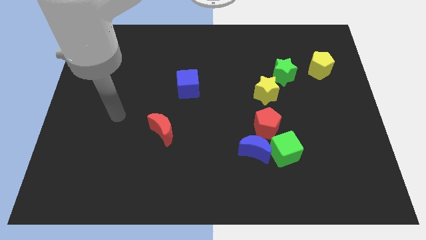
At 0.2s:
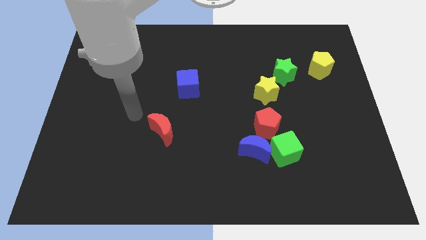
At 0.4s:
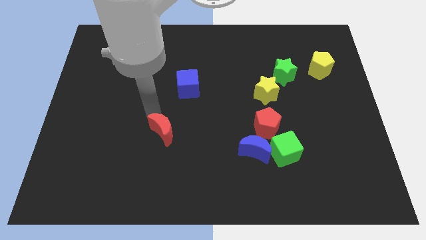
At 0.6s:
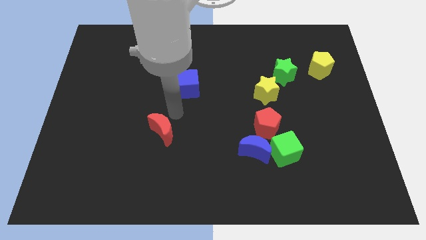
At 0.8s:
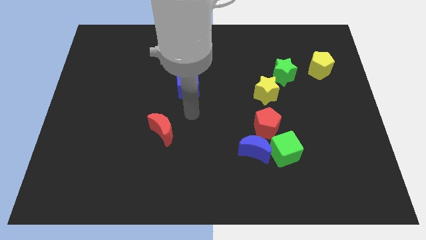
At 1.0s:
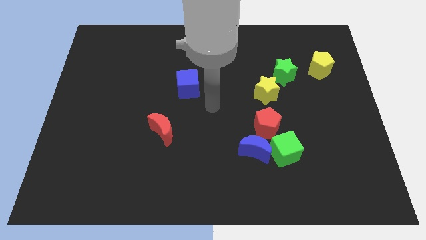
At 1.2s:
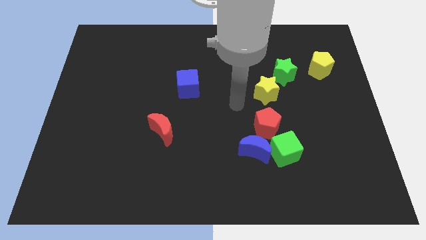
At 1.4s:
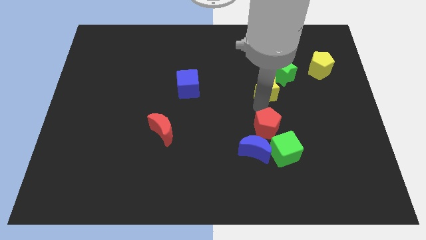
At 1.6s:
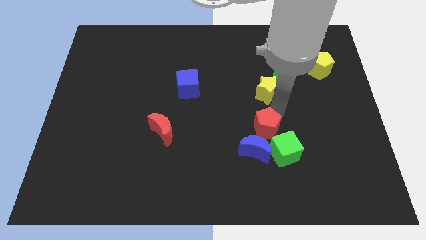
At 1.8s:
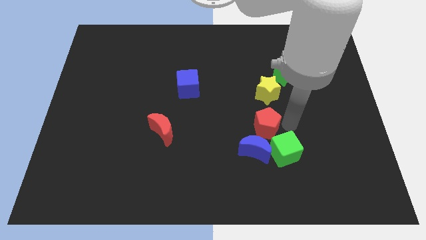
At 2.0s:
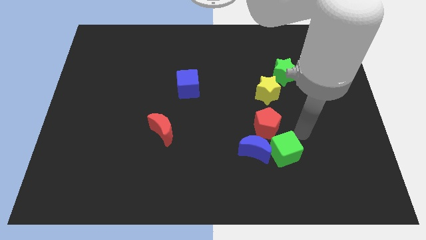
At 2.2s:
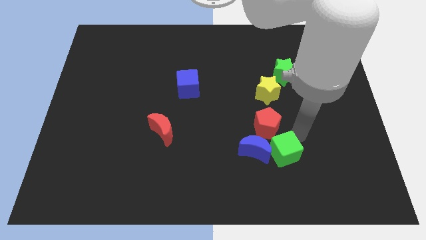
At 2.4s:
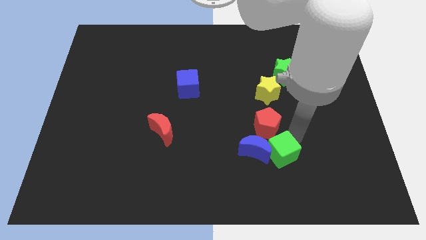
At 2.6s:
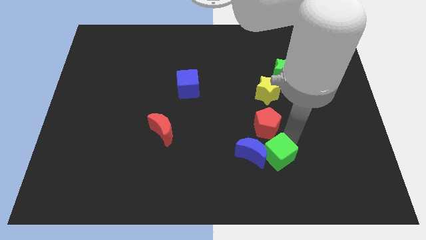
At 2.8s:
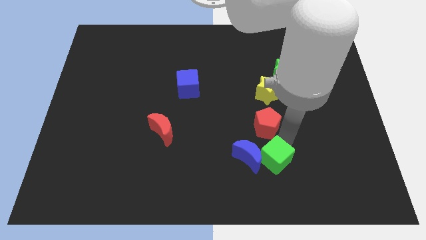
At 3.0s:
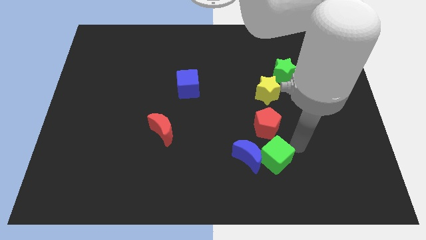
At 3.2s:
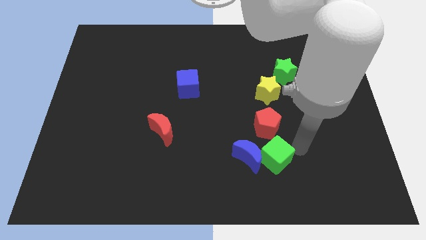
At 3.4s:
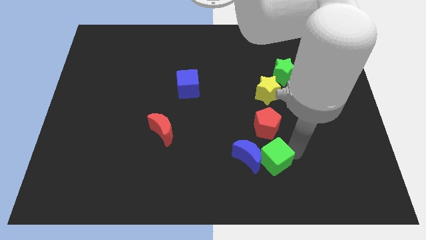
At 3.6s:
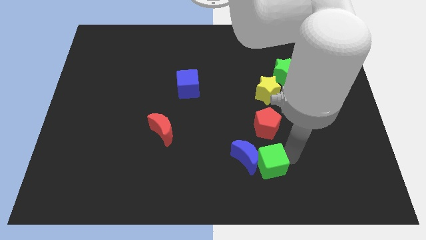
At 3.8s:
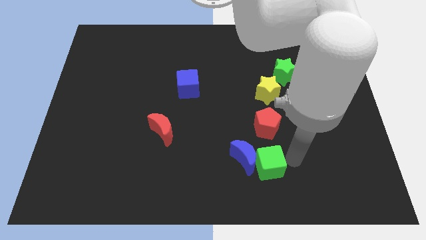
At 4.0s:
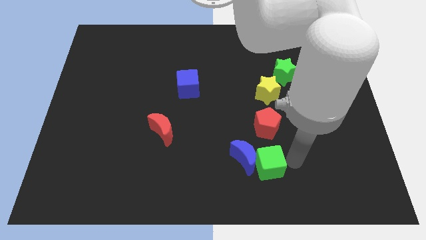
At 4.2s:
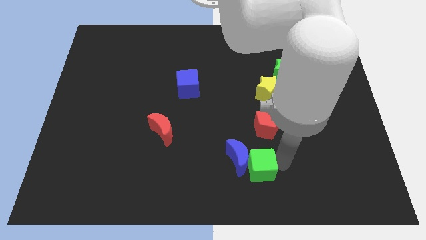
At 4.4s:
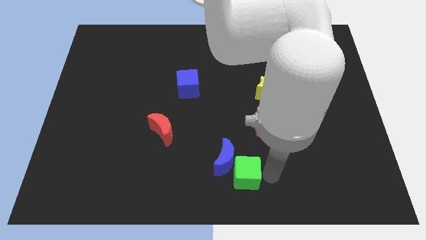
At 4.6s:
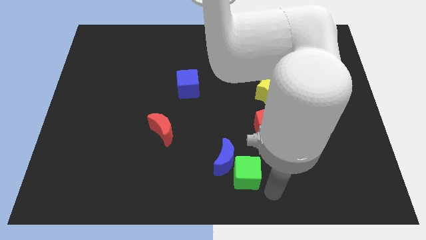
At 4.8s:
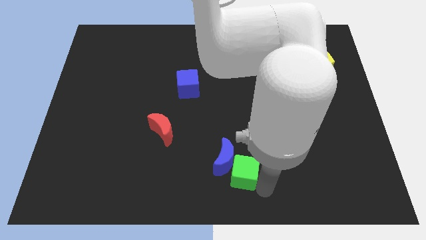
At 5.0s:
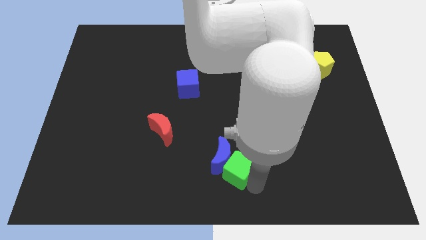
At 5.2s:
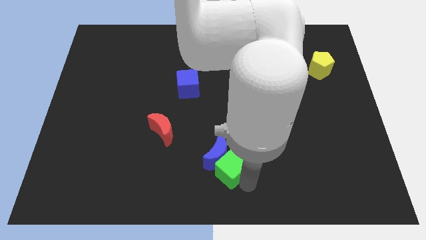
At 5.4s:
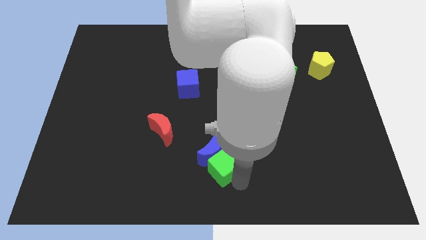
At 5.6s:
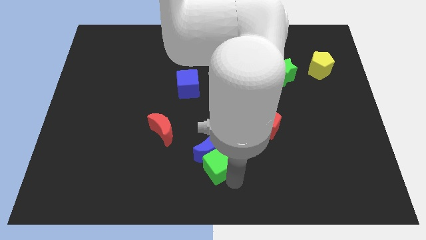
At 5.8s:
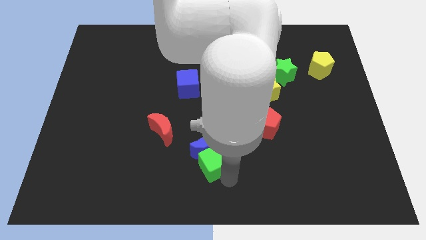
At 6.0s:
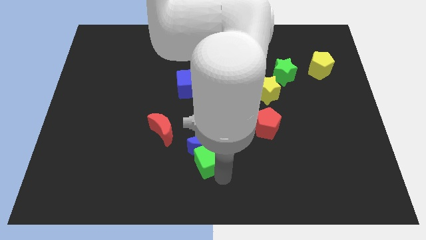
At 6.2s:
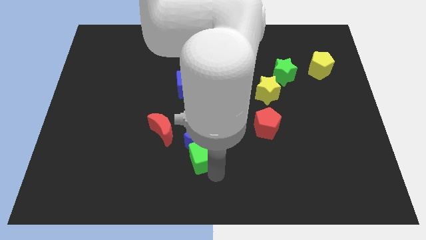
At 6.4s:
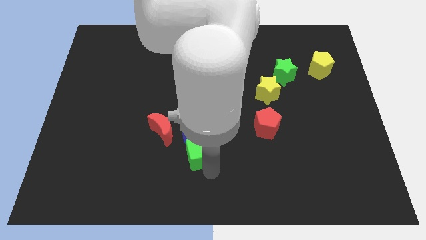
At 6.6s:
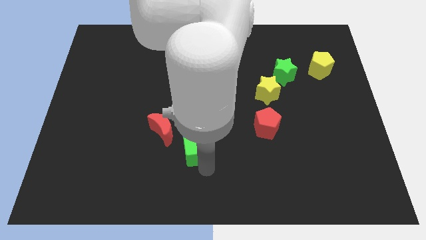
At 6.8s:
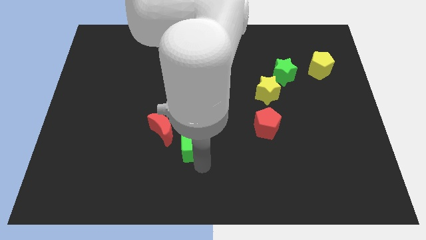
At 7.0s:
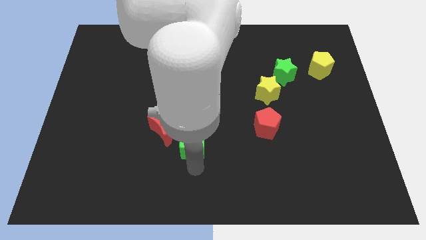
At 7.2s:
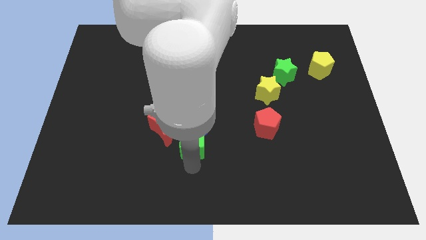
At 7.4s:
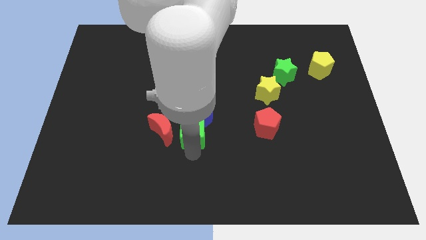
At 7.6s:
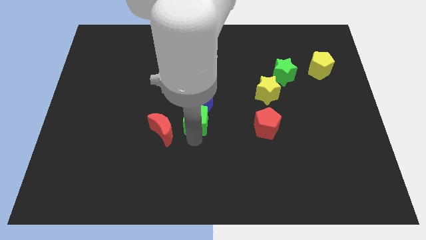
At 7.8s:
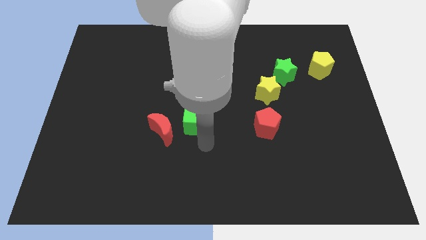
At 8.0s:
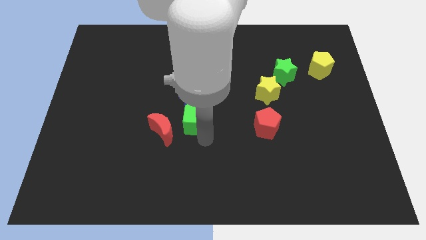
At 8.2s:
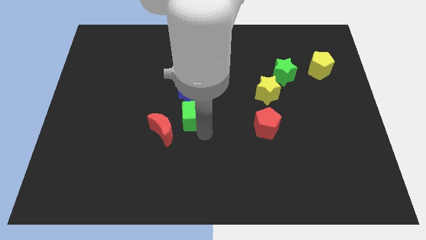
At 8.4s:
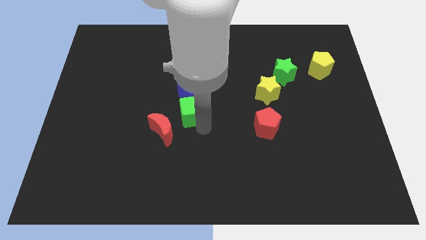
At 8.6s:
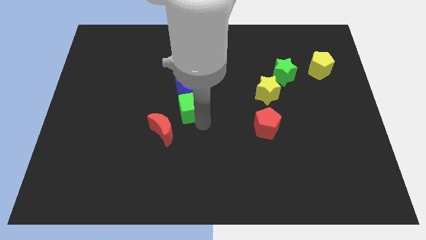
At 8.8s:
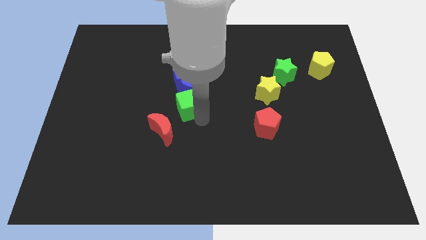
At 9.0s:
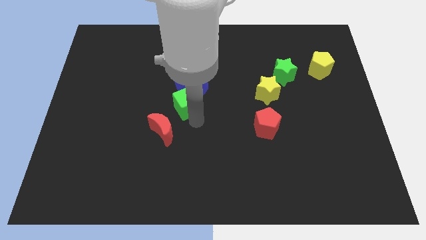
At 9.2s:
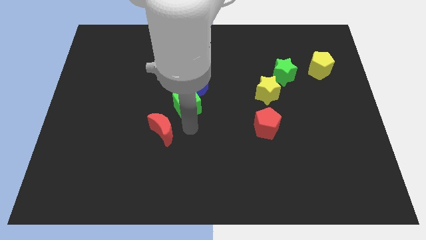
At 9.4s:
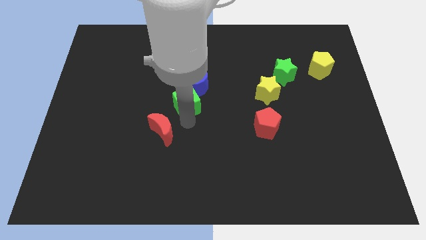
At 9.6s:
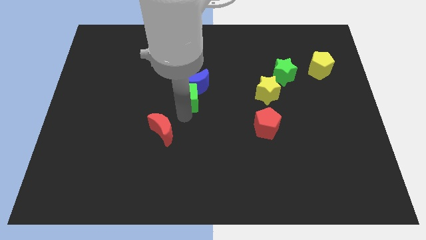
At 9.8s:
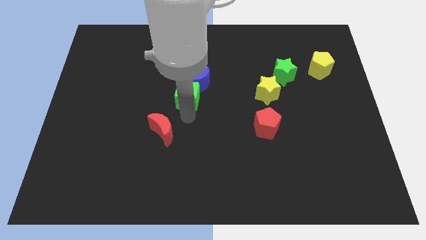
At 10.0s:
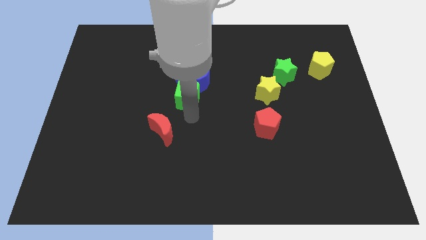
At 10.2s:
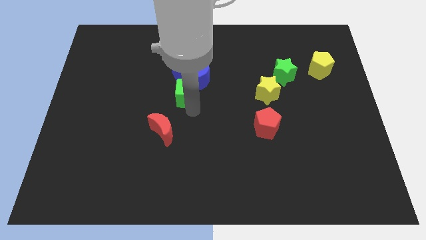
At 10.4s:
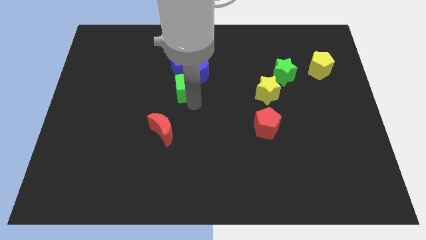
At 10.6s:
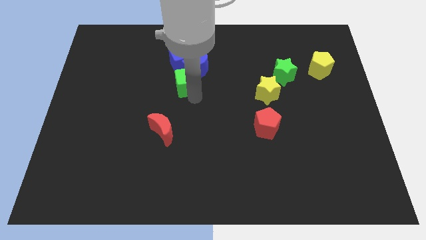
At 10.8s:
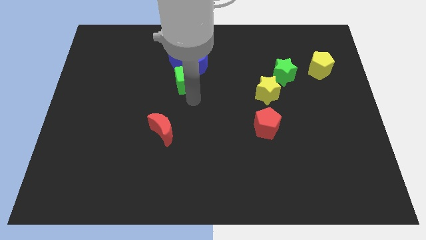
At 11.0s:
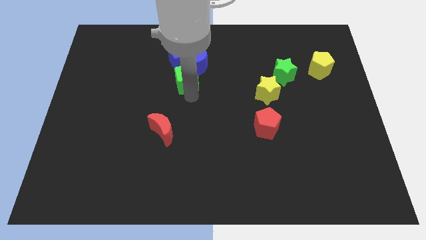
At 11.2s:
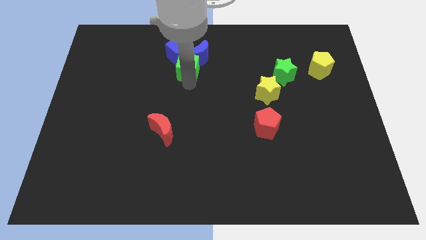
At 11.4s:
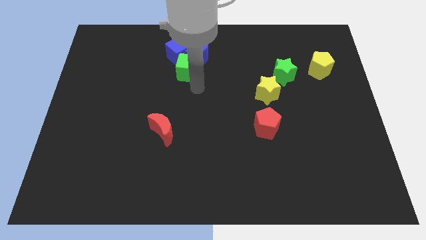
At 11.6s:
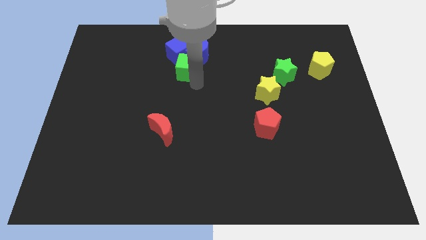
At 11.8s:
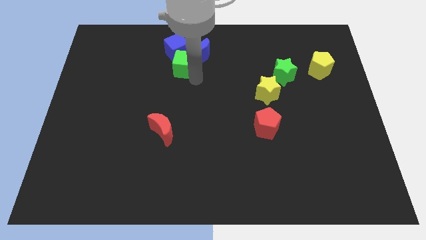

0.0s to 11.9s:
put the green cube towards the blue cube

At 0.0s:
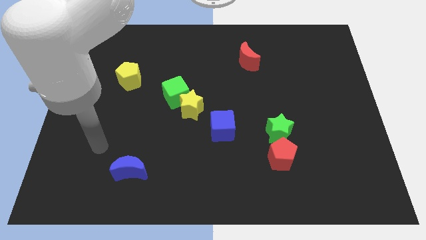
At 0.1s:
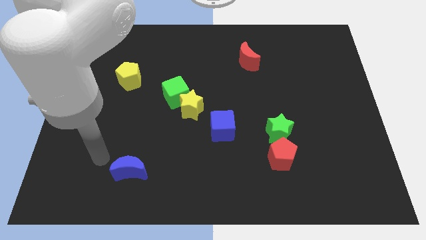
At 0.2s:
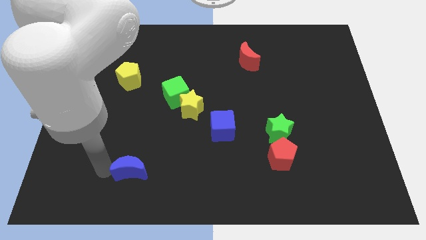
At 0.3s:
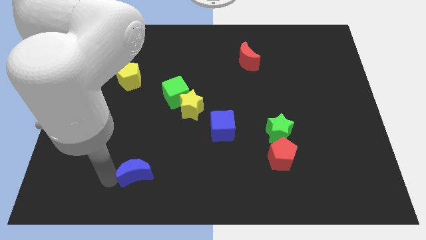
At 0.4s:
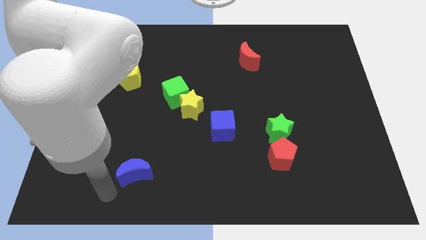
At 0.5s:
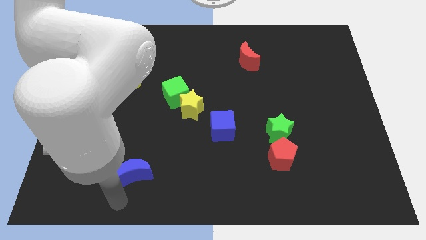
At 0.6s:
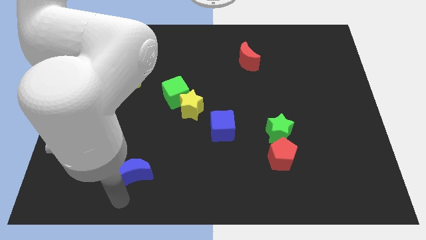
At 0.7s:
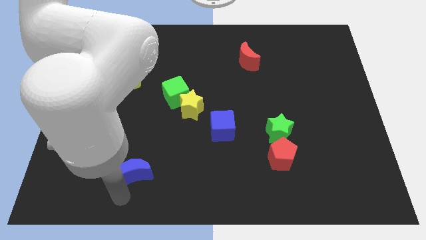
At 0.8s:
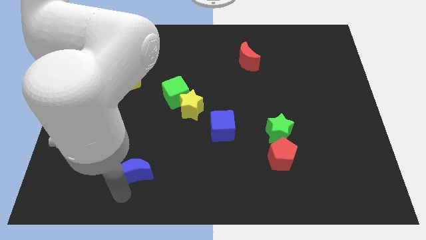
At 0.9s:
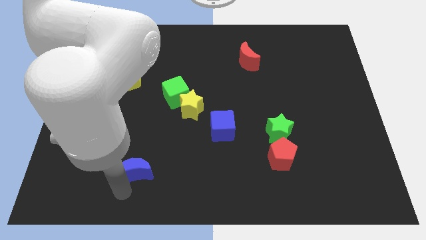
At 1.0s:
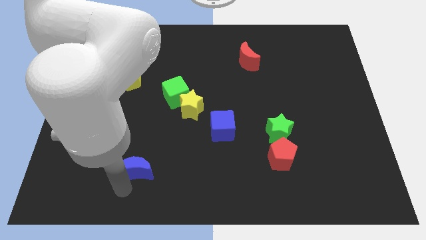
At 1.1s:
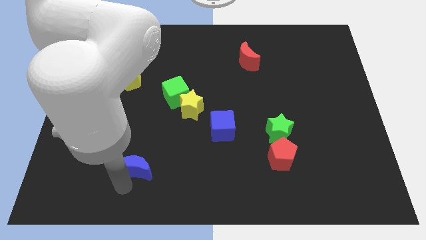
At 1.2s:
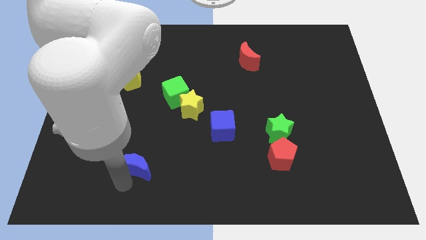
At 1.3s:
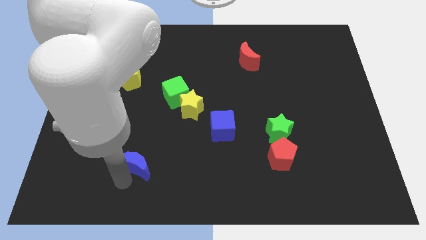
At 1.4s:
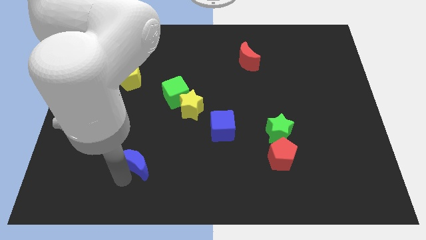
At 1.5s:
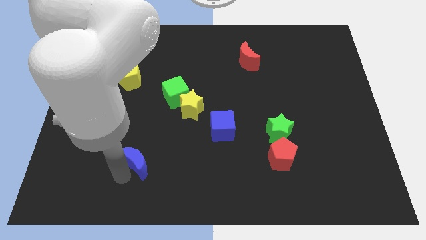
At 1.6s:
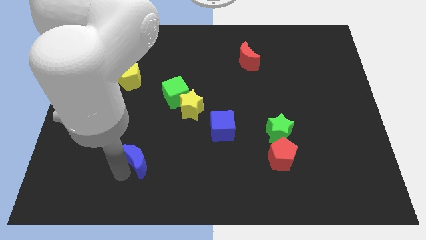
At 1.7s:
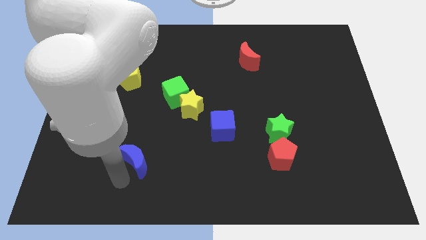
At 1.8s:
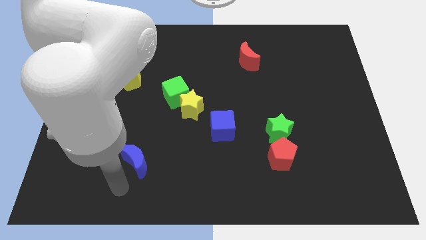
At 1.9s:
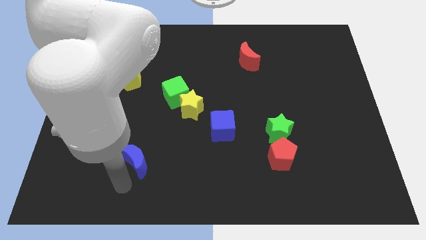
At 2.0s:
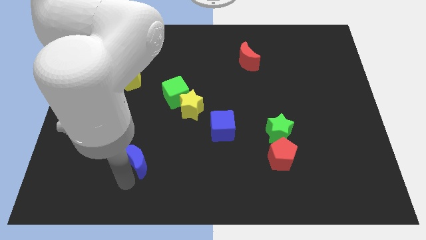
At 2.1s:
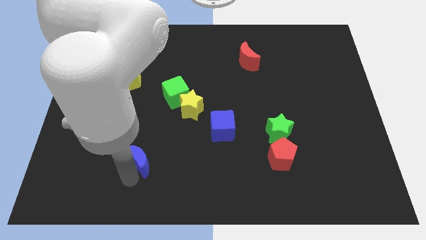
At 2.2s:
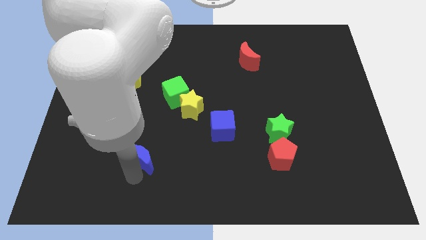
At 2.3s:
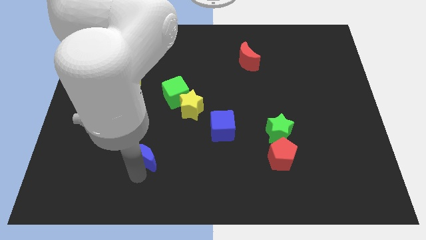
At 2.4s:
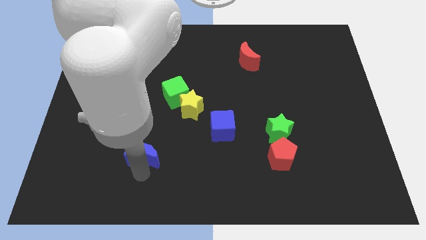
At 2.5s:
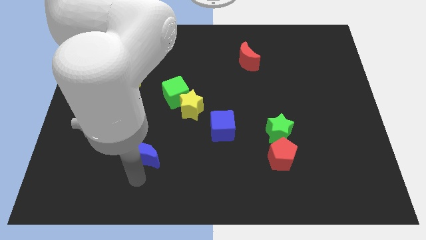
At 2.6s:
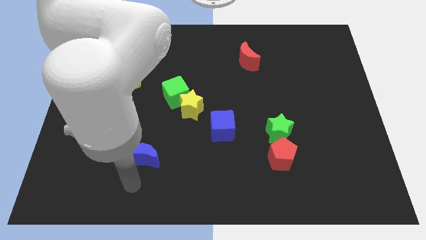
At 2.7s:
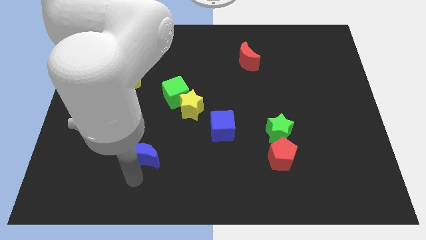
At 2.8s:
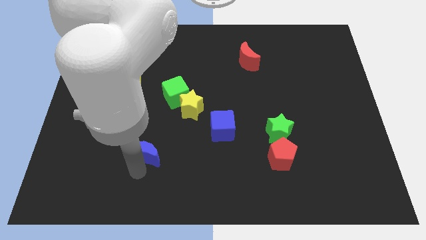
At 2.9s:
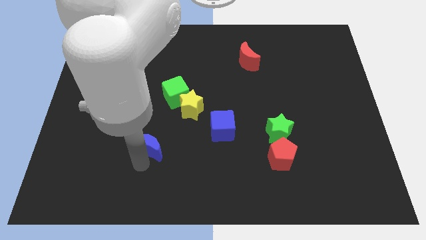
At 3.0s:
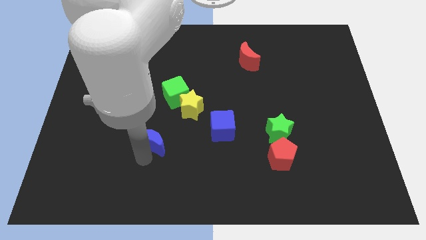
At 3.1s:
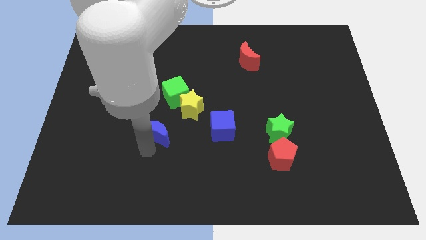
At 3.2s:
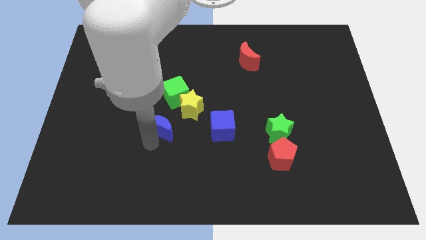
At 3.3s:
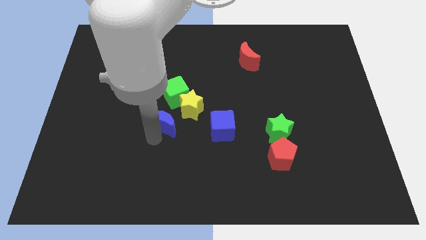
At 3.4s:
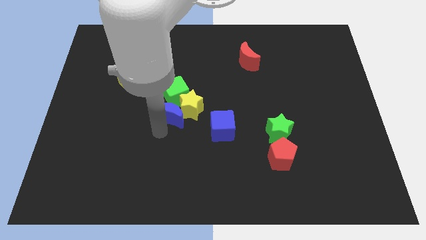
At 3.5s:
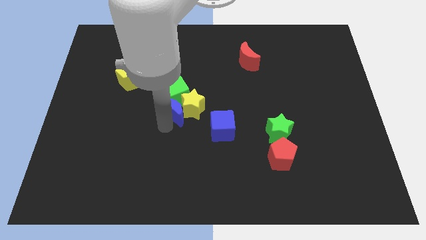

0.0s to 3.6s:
slide the blue moon to the green cube
